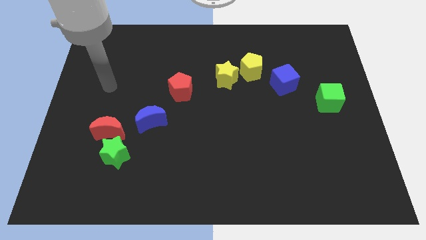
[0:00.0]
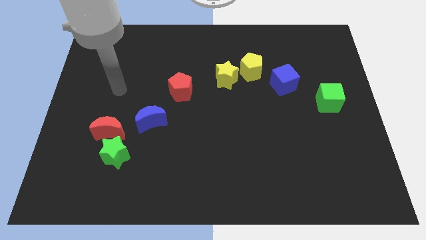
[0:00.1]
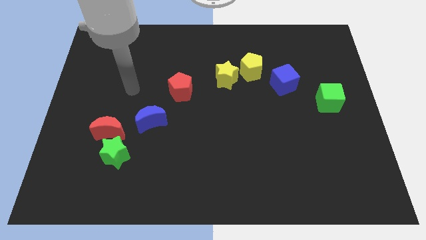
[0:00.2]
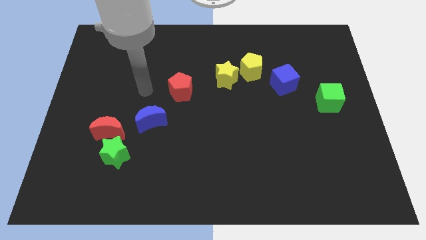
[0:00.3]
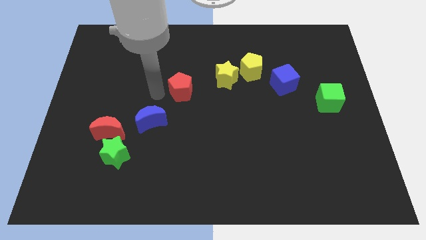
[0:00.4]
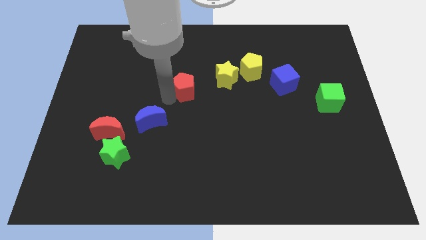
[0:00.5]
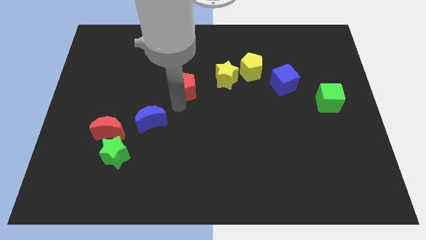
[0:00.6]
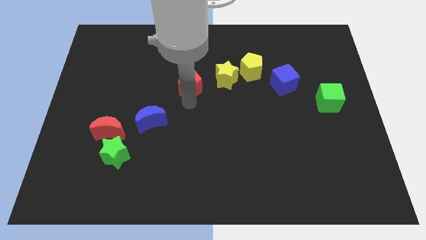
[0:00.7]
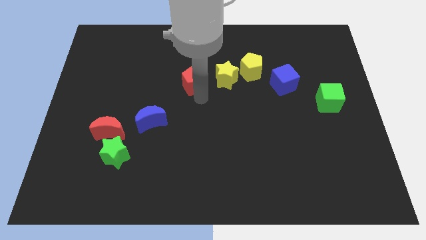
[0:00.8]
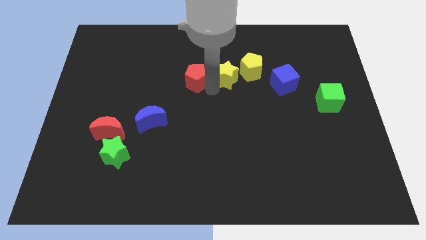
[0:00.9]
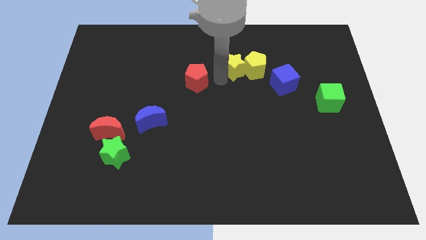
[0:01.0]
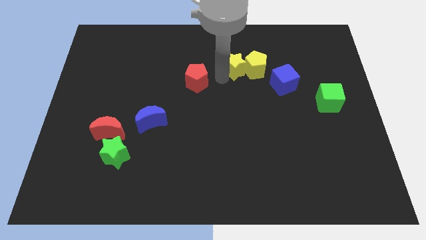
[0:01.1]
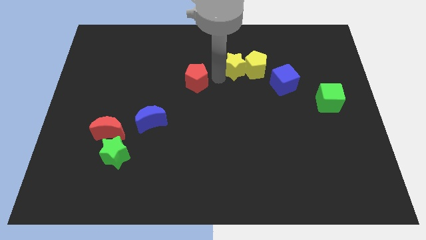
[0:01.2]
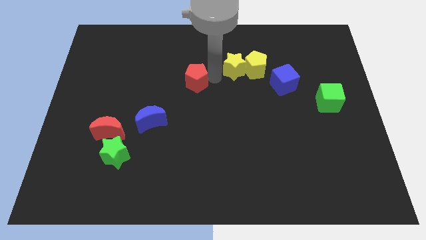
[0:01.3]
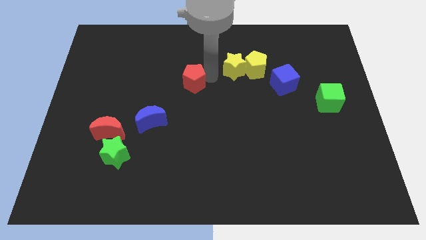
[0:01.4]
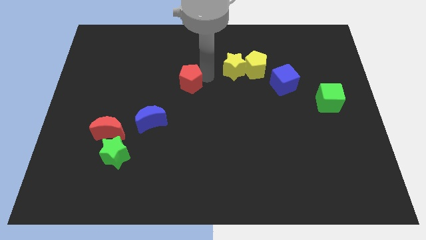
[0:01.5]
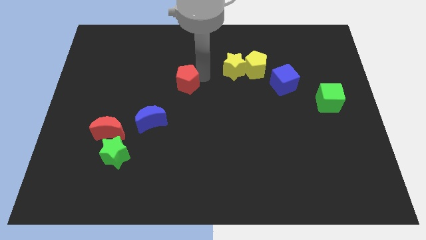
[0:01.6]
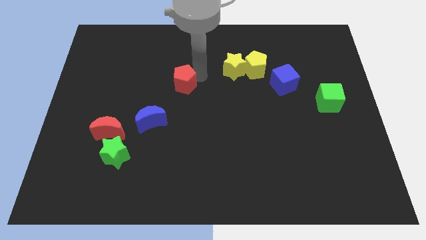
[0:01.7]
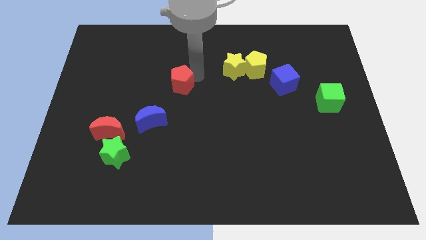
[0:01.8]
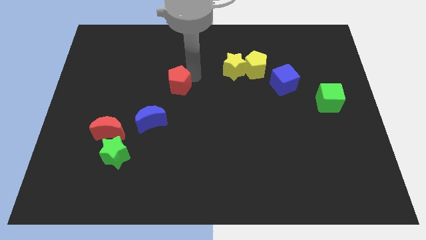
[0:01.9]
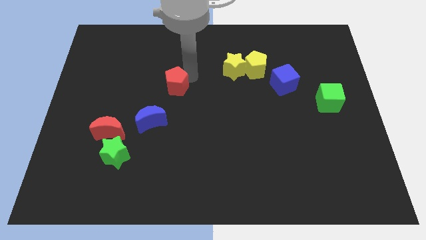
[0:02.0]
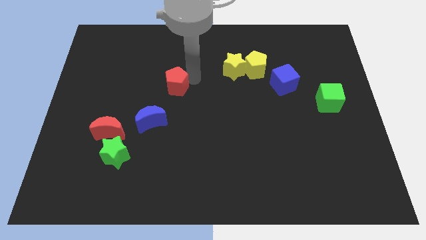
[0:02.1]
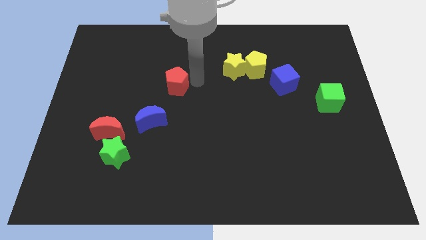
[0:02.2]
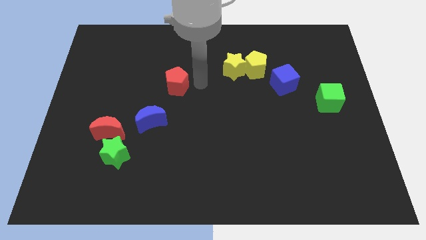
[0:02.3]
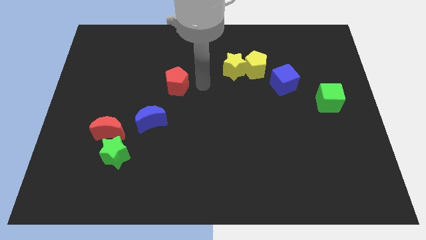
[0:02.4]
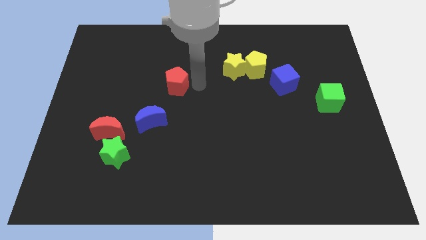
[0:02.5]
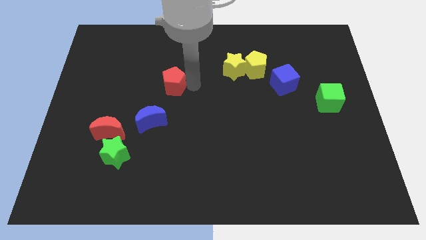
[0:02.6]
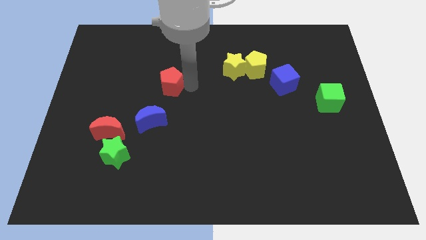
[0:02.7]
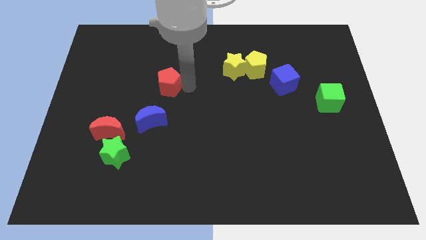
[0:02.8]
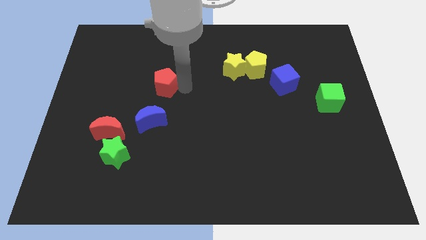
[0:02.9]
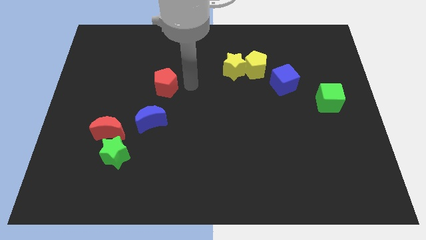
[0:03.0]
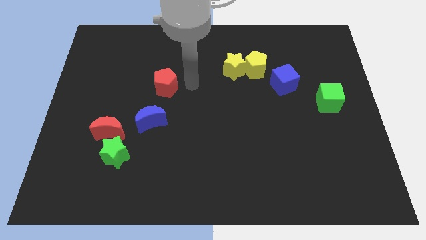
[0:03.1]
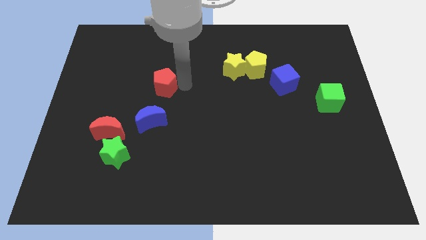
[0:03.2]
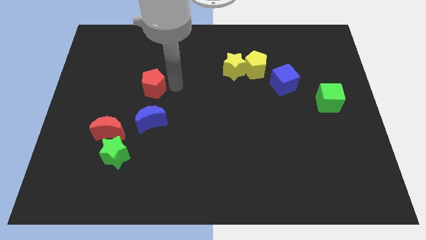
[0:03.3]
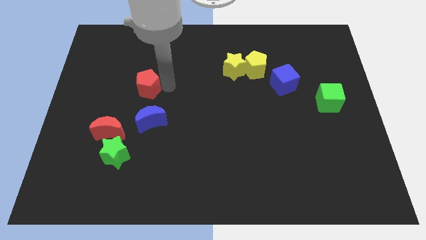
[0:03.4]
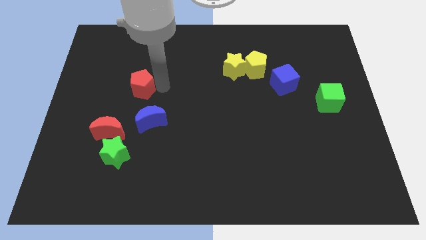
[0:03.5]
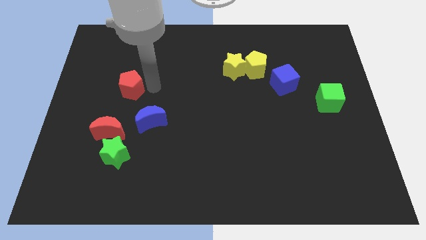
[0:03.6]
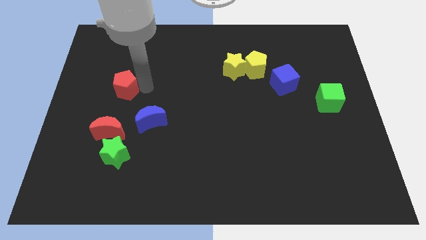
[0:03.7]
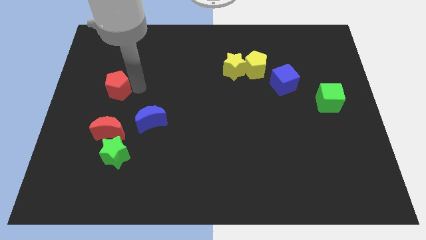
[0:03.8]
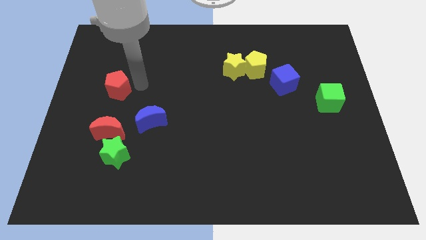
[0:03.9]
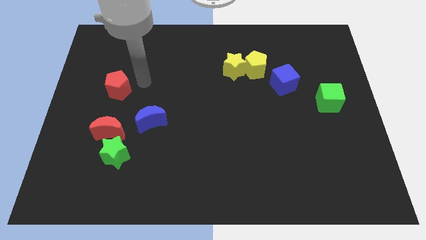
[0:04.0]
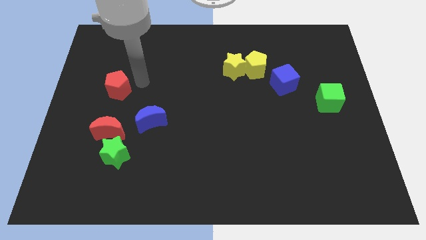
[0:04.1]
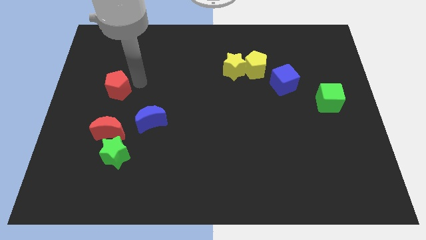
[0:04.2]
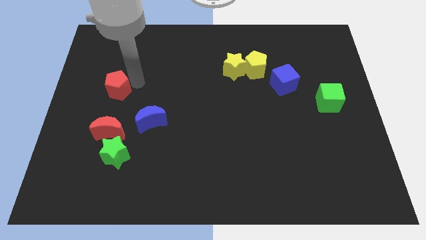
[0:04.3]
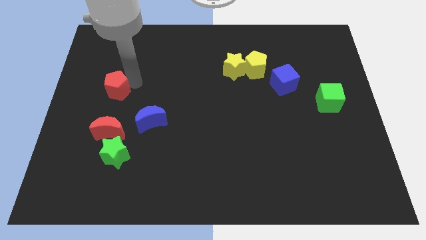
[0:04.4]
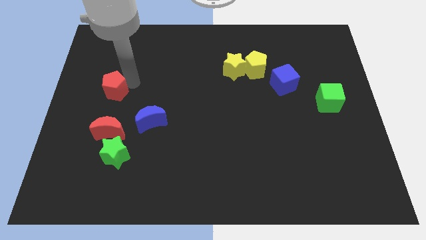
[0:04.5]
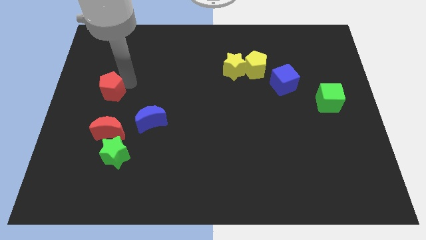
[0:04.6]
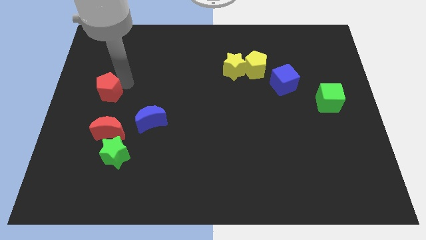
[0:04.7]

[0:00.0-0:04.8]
push the red pentagon to the left side

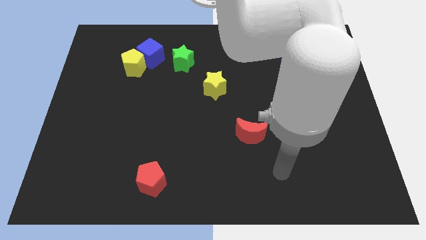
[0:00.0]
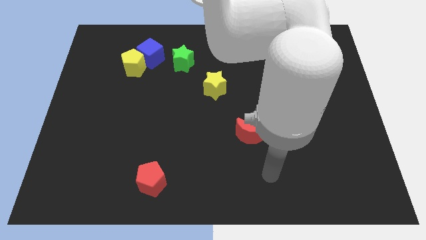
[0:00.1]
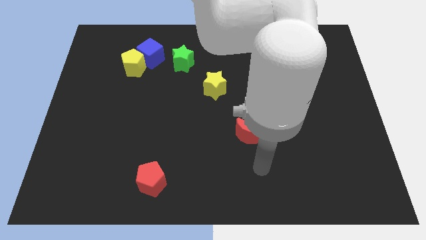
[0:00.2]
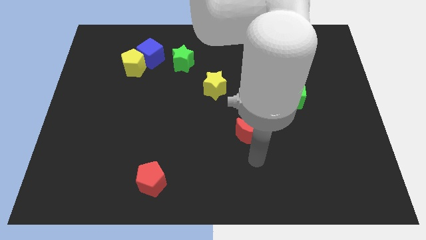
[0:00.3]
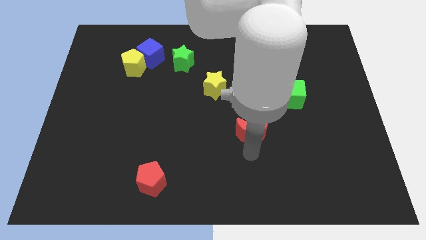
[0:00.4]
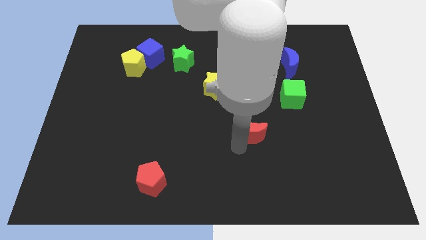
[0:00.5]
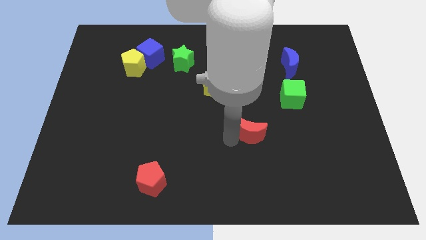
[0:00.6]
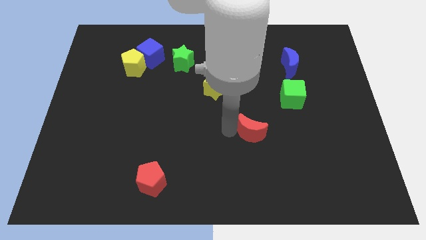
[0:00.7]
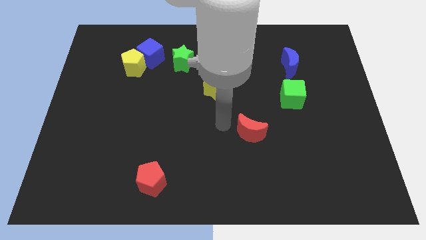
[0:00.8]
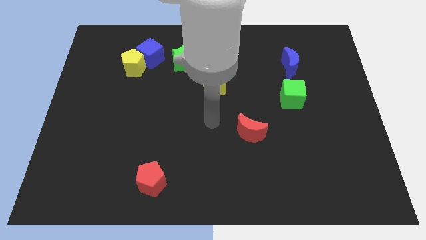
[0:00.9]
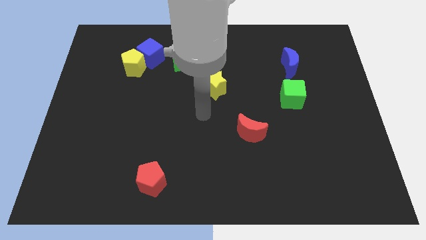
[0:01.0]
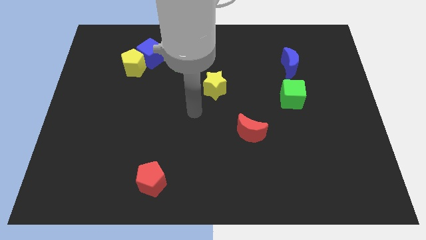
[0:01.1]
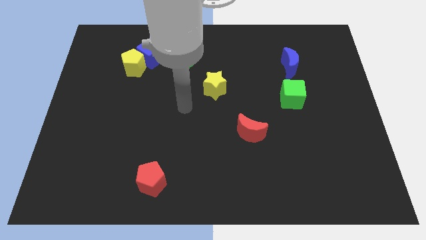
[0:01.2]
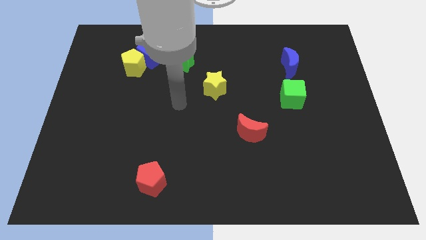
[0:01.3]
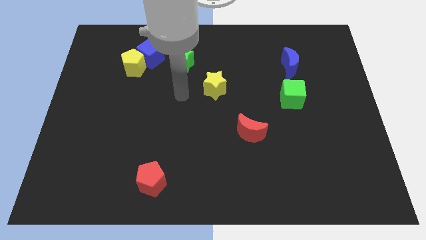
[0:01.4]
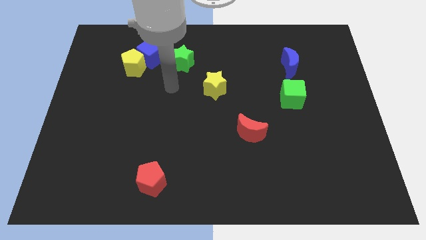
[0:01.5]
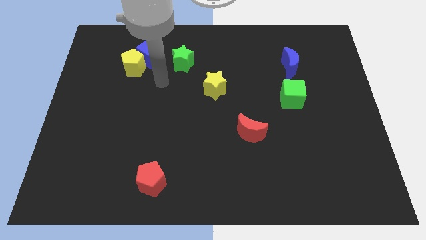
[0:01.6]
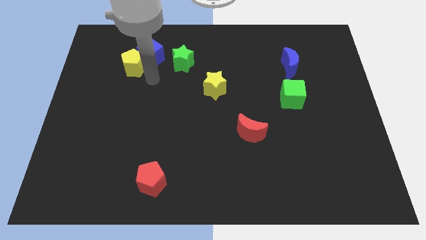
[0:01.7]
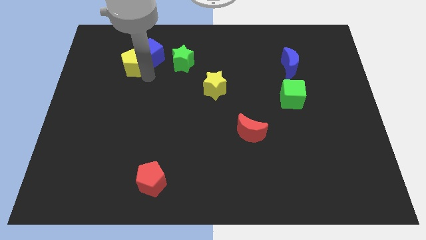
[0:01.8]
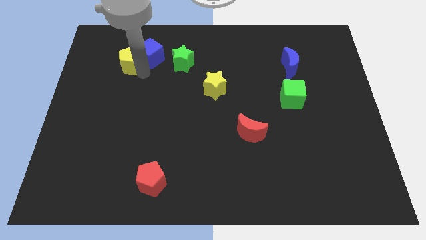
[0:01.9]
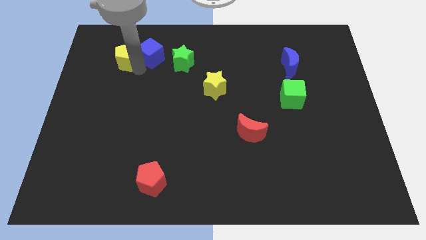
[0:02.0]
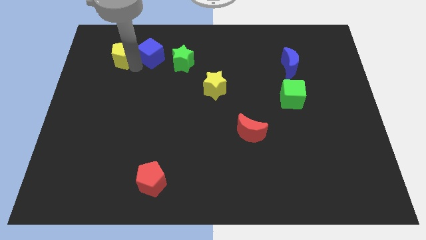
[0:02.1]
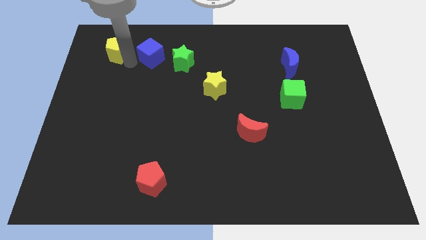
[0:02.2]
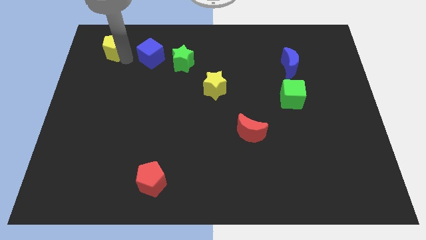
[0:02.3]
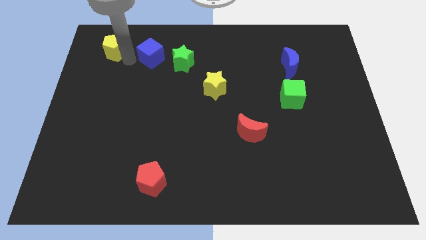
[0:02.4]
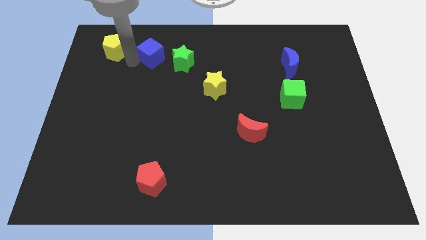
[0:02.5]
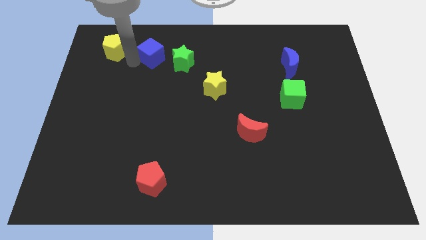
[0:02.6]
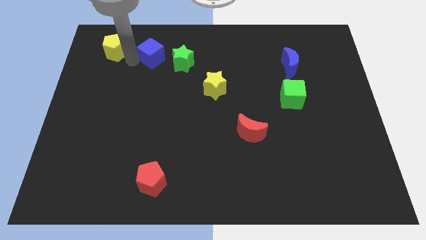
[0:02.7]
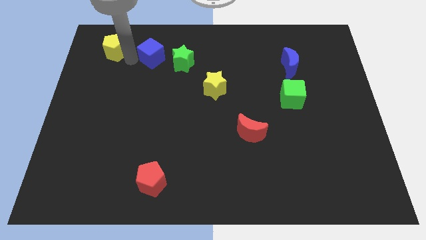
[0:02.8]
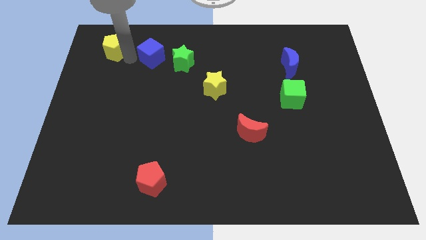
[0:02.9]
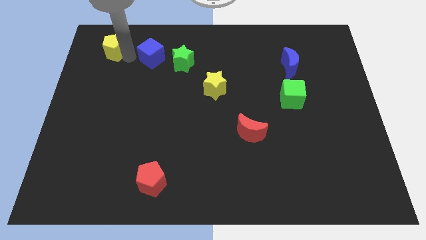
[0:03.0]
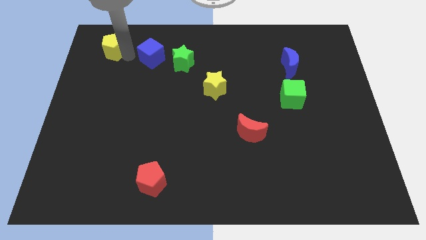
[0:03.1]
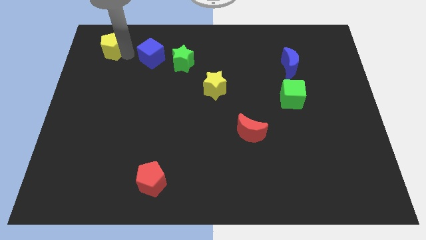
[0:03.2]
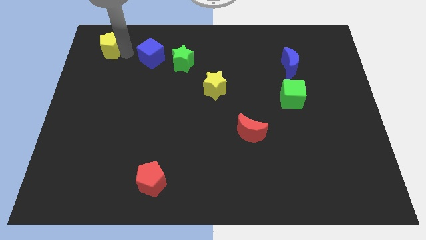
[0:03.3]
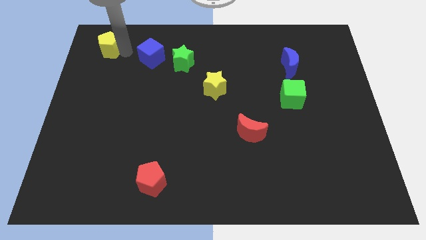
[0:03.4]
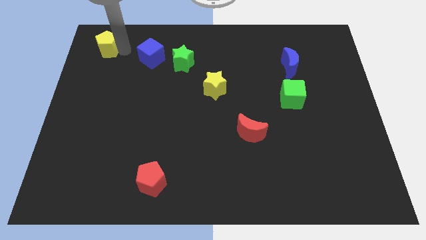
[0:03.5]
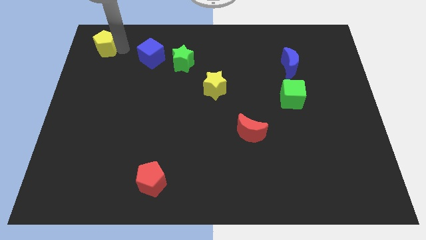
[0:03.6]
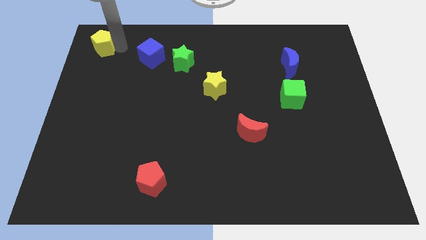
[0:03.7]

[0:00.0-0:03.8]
push the yellow pentagon to the top left
